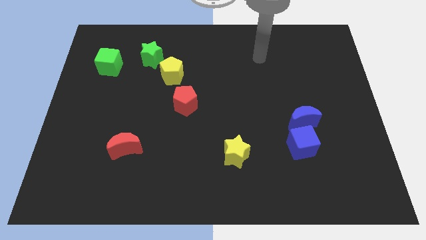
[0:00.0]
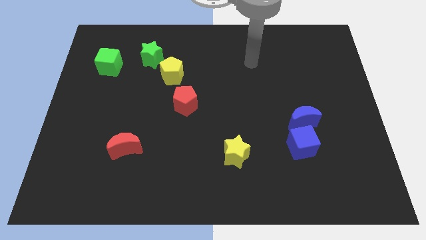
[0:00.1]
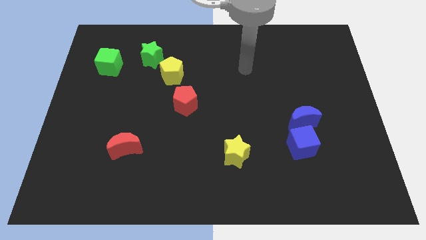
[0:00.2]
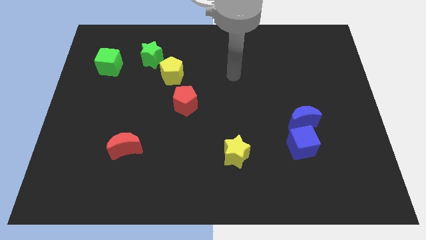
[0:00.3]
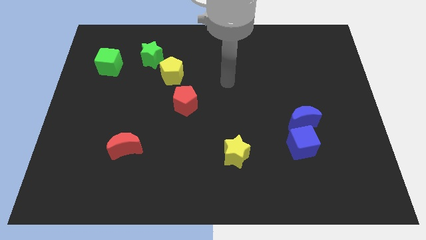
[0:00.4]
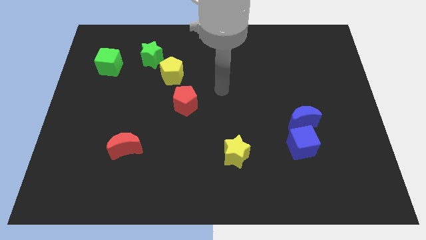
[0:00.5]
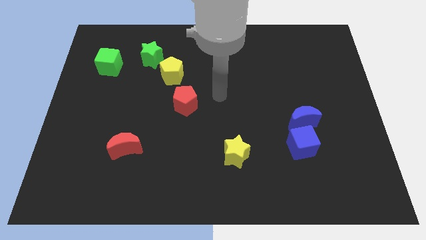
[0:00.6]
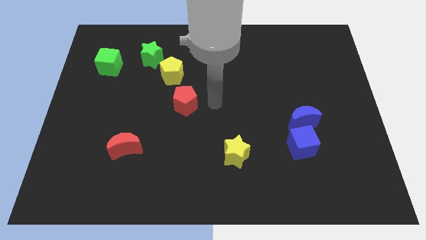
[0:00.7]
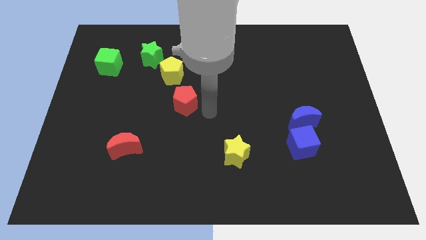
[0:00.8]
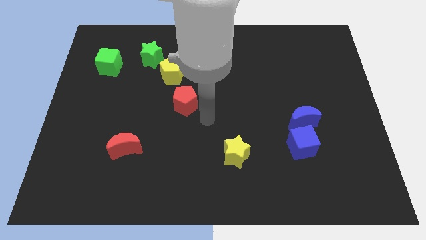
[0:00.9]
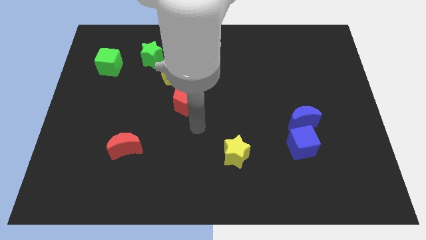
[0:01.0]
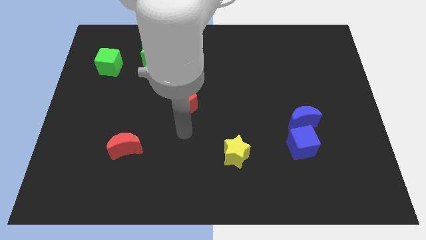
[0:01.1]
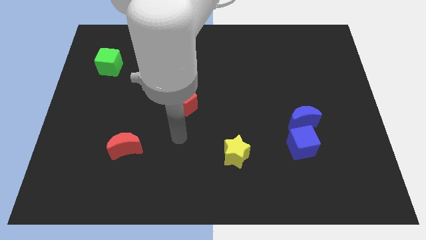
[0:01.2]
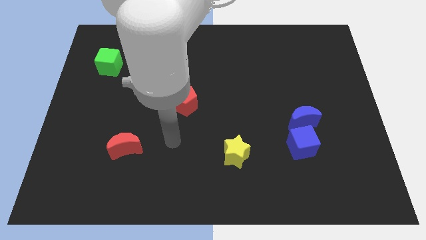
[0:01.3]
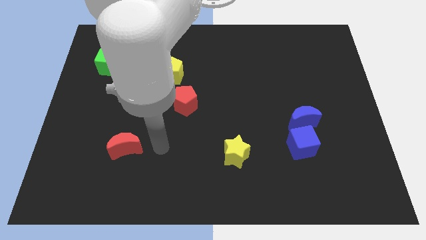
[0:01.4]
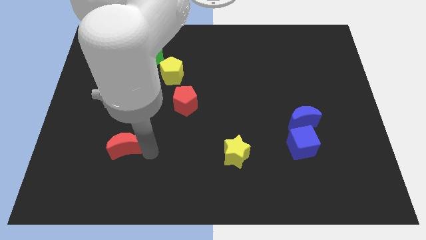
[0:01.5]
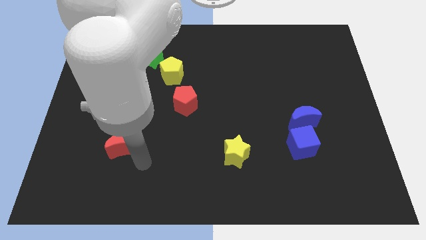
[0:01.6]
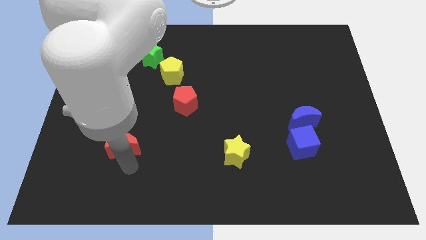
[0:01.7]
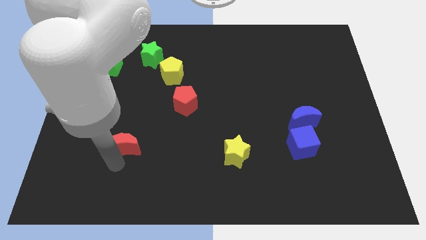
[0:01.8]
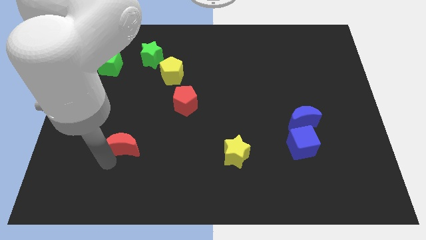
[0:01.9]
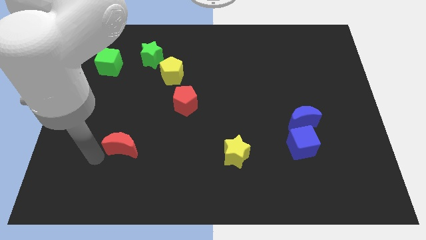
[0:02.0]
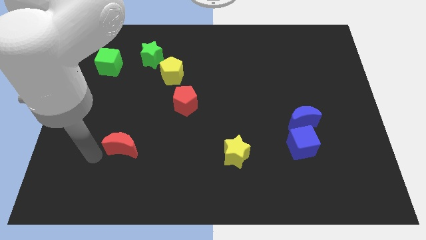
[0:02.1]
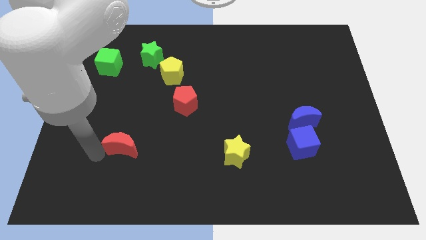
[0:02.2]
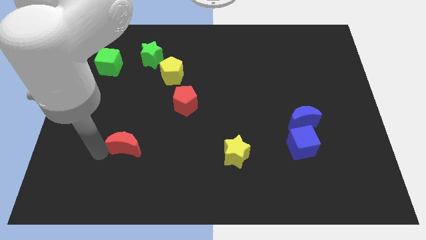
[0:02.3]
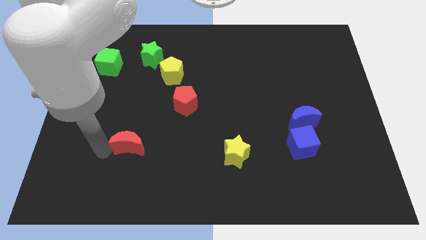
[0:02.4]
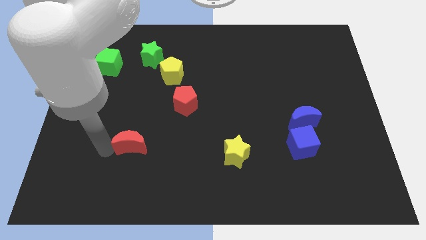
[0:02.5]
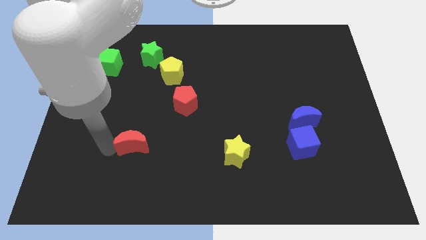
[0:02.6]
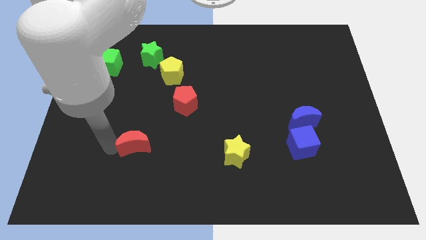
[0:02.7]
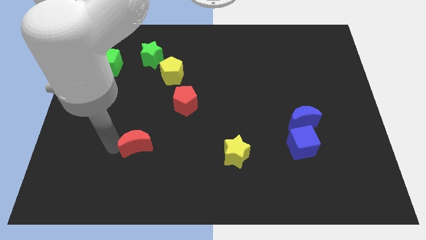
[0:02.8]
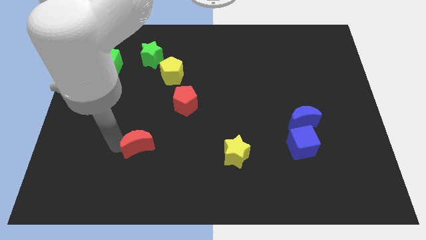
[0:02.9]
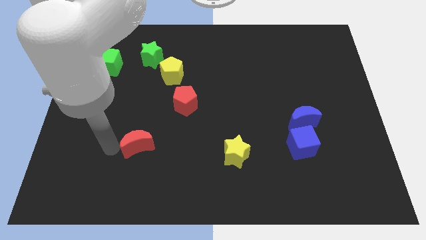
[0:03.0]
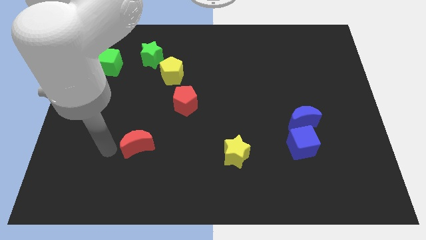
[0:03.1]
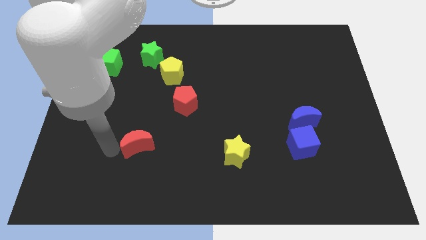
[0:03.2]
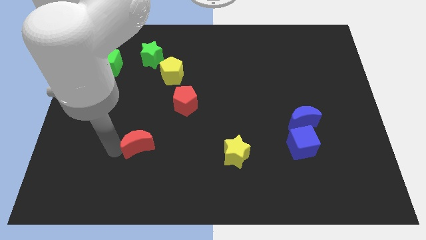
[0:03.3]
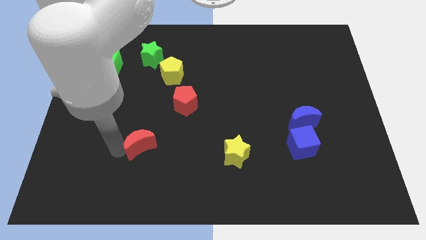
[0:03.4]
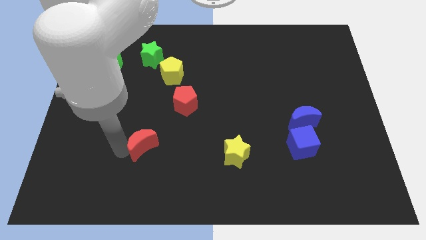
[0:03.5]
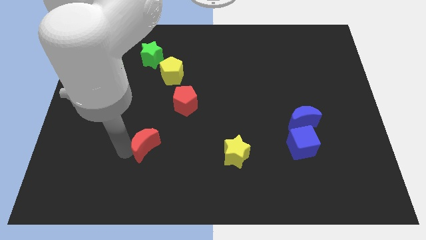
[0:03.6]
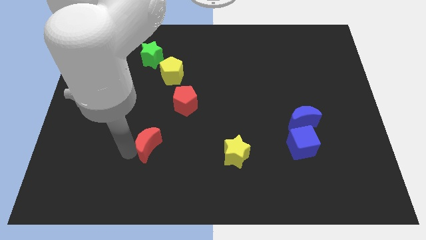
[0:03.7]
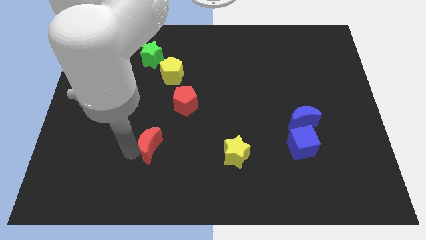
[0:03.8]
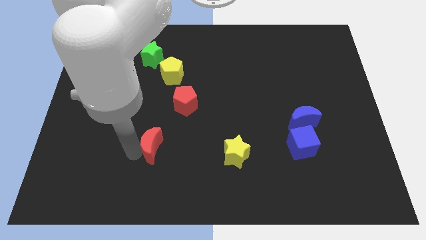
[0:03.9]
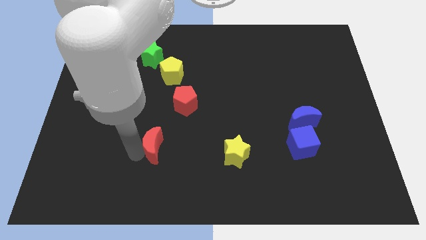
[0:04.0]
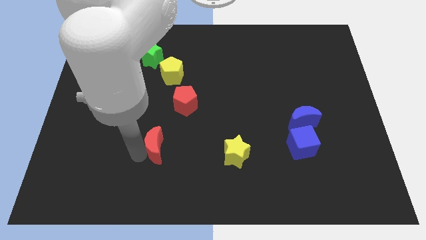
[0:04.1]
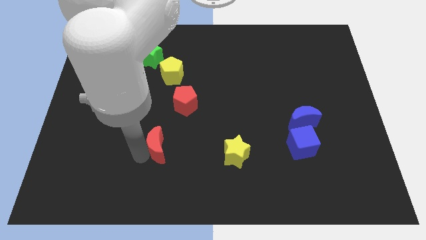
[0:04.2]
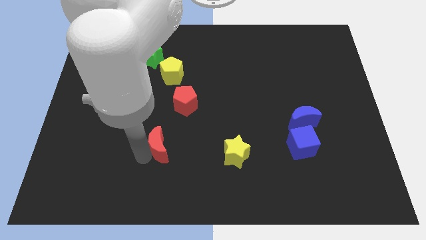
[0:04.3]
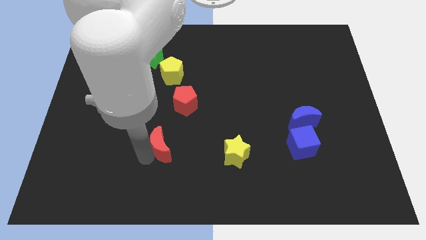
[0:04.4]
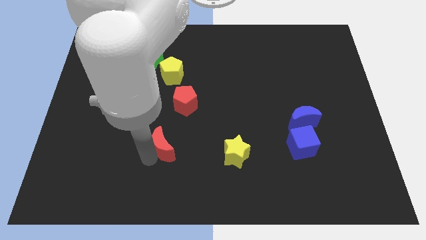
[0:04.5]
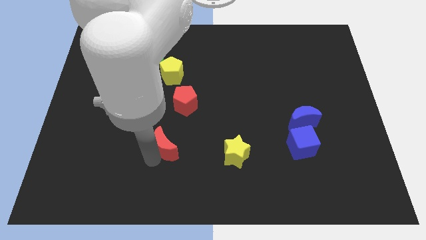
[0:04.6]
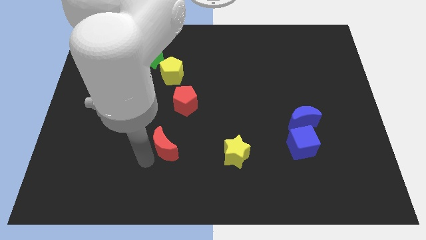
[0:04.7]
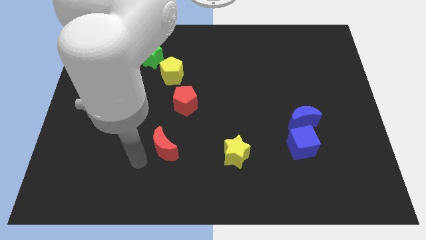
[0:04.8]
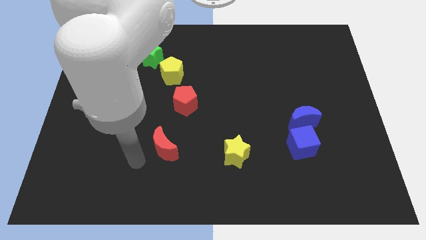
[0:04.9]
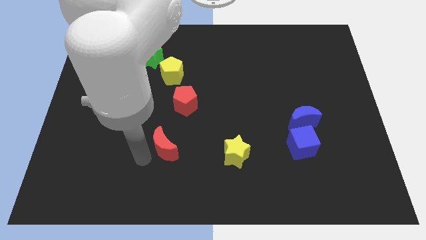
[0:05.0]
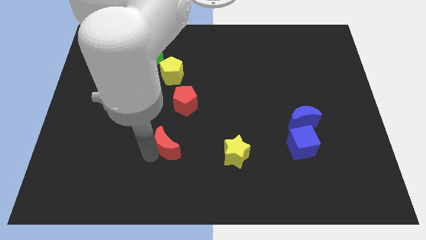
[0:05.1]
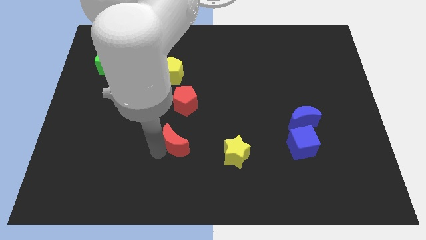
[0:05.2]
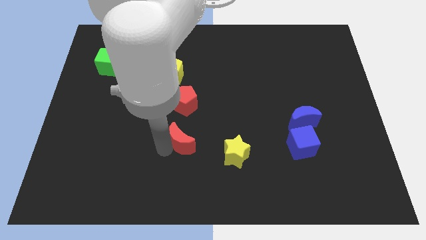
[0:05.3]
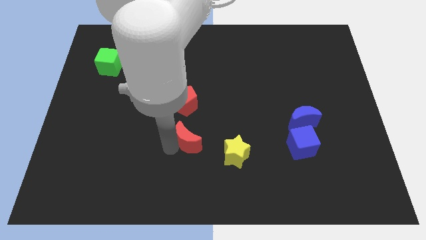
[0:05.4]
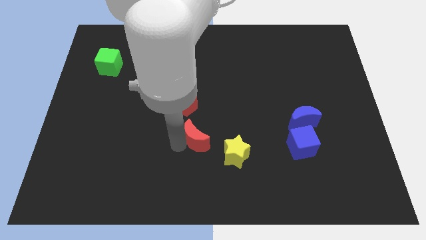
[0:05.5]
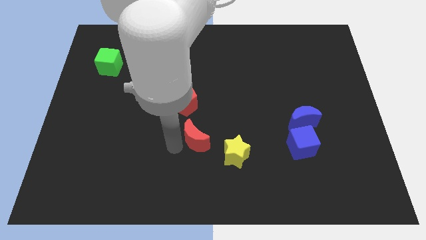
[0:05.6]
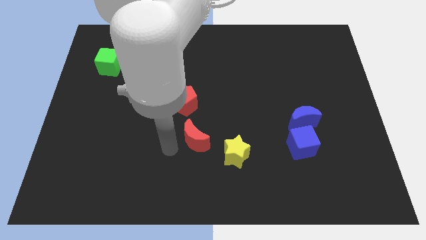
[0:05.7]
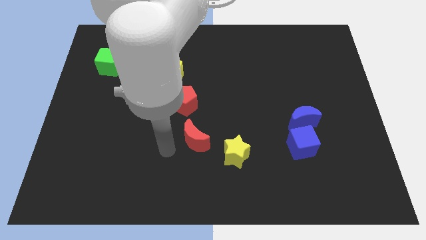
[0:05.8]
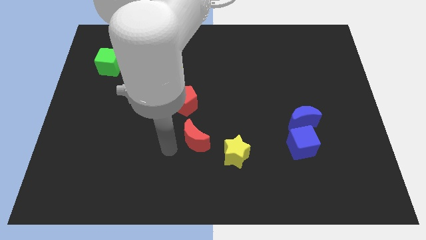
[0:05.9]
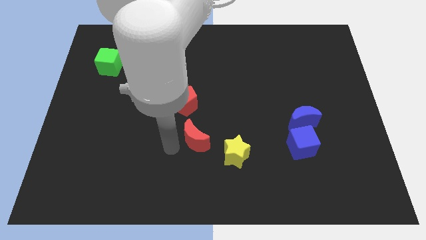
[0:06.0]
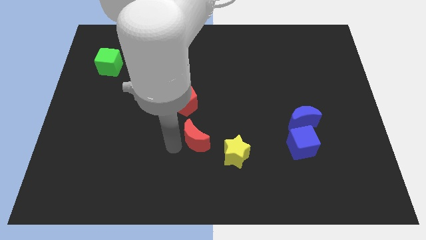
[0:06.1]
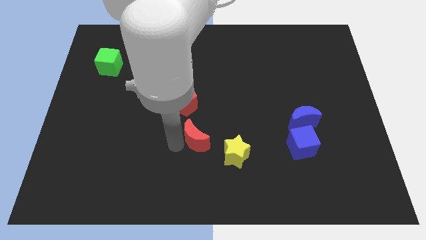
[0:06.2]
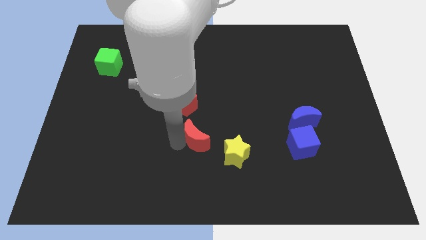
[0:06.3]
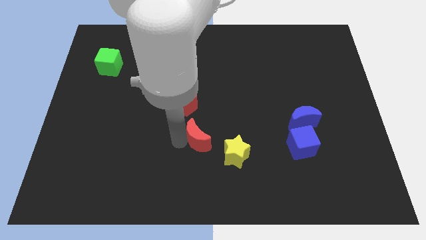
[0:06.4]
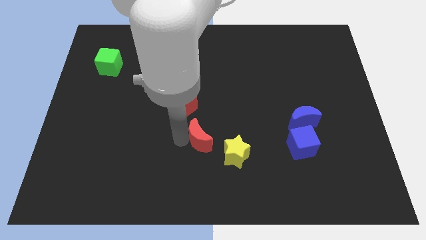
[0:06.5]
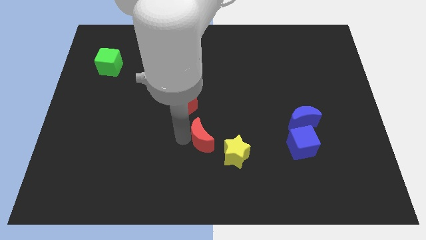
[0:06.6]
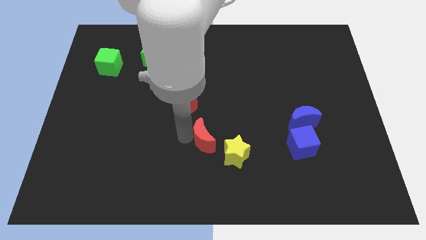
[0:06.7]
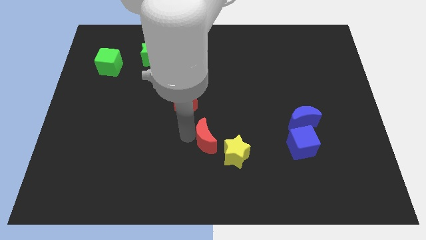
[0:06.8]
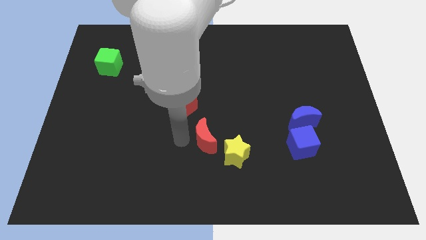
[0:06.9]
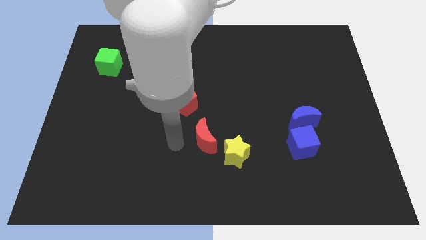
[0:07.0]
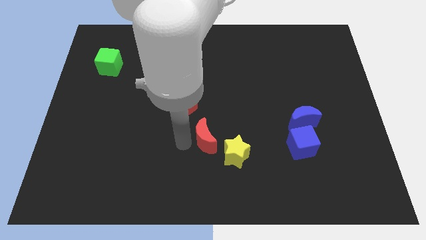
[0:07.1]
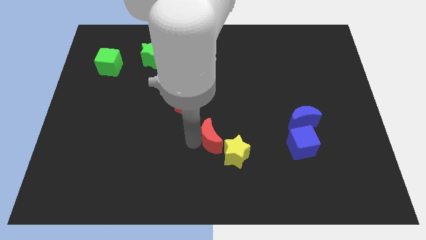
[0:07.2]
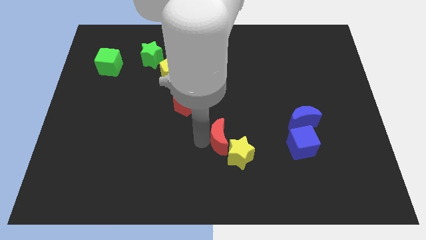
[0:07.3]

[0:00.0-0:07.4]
push the red moon to the right

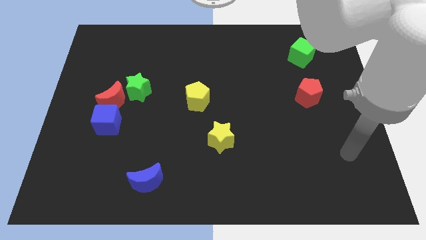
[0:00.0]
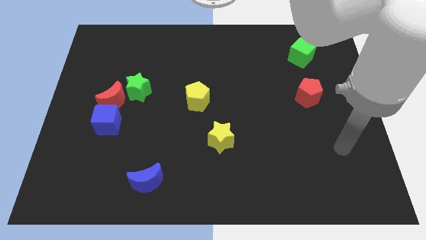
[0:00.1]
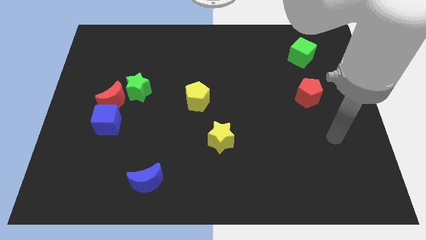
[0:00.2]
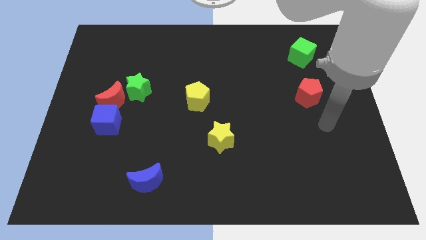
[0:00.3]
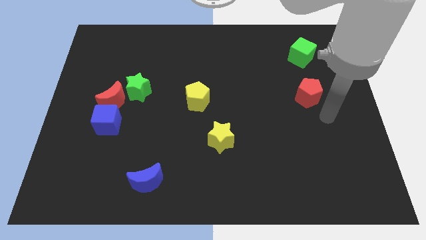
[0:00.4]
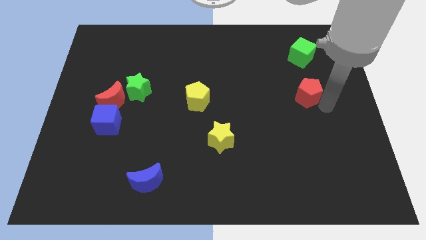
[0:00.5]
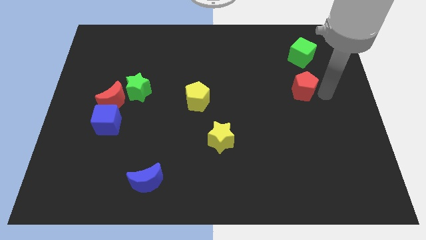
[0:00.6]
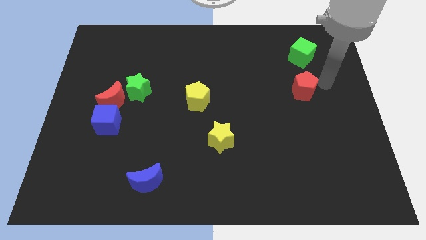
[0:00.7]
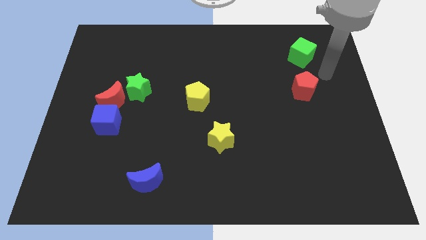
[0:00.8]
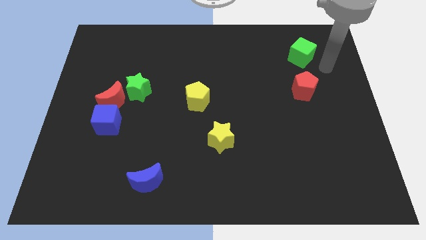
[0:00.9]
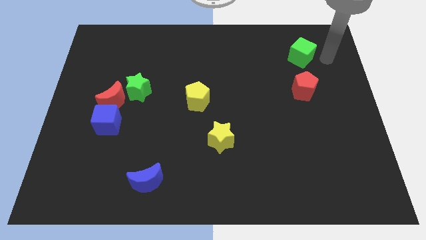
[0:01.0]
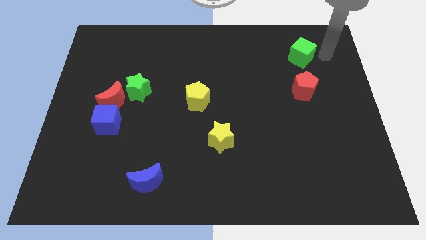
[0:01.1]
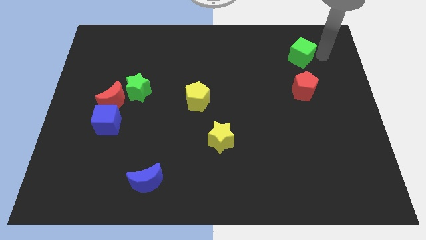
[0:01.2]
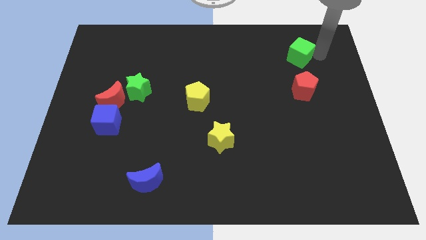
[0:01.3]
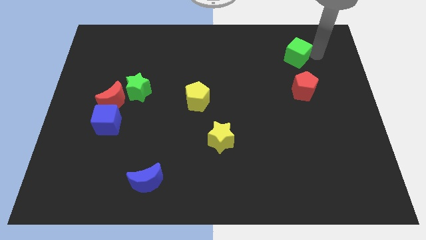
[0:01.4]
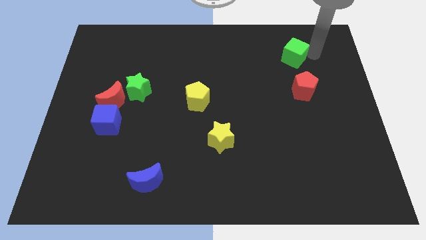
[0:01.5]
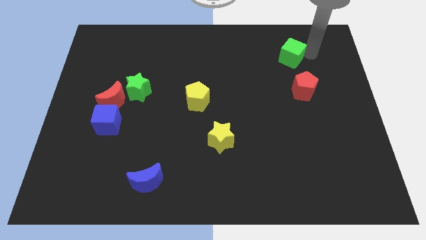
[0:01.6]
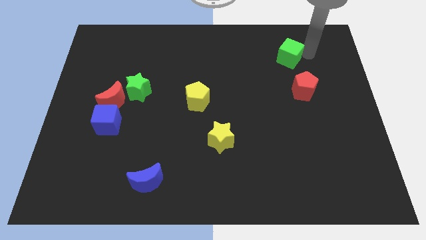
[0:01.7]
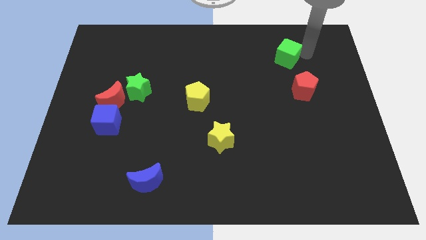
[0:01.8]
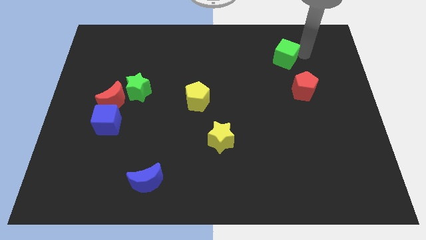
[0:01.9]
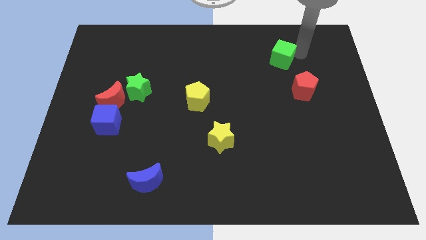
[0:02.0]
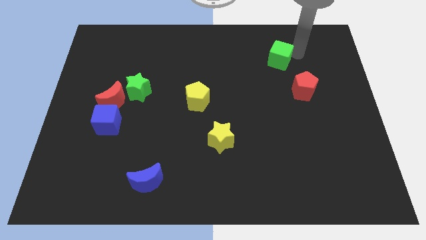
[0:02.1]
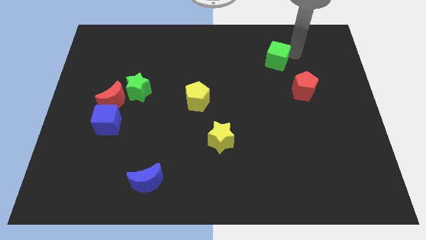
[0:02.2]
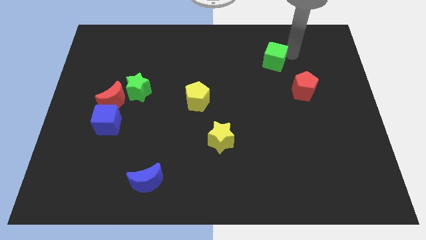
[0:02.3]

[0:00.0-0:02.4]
slide the green cube a bit to the left
